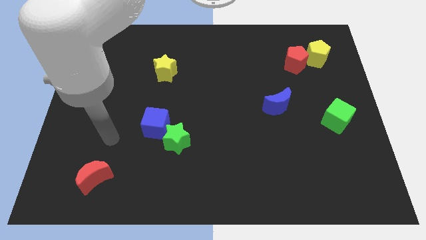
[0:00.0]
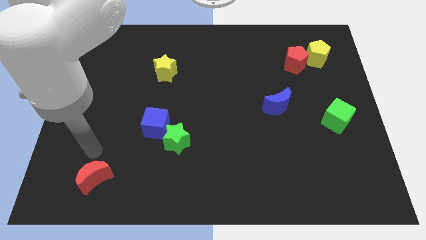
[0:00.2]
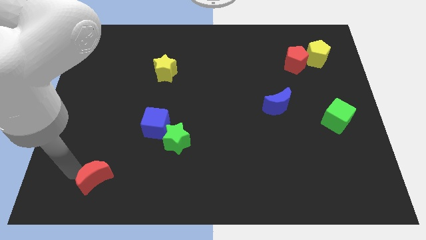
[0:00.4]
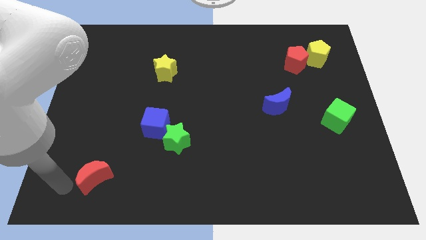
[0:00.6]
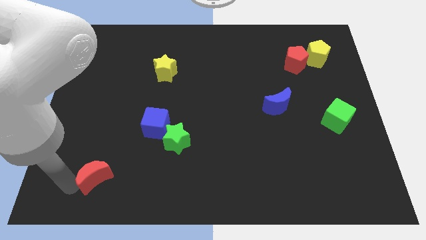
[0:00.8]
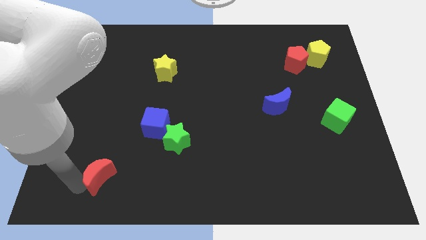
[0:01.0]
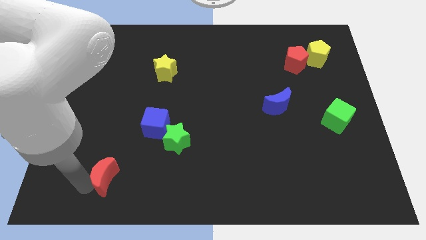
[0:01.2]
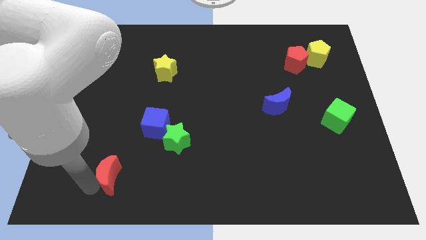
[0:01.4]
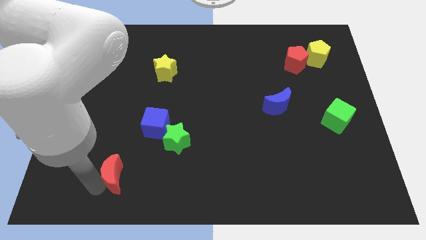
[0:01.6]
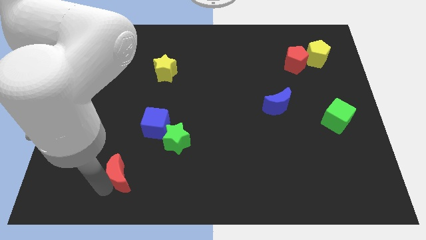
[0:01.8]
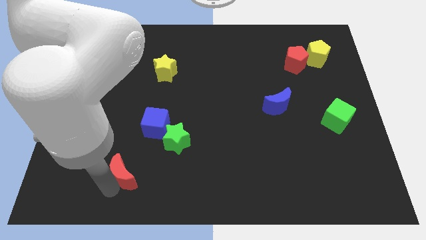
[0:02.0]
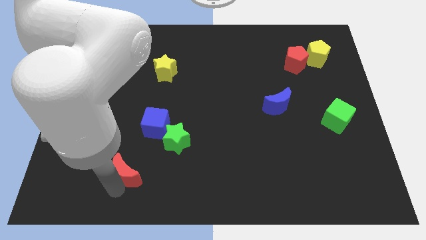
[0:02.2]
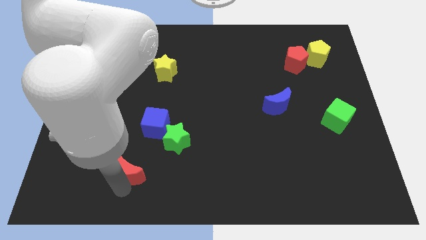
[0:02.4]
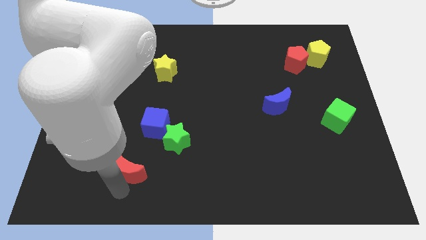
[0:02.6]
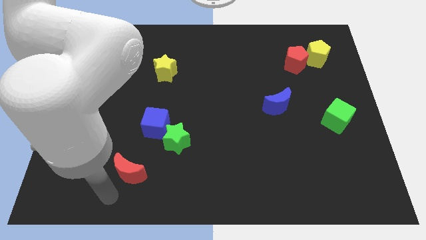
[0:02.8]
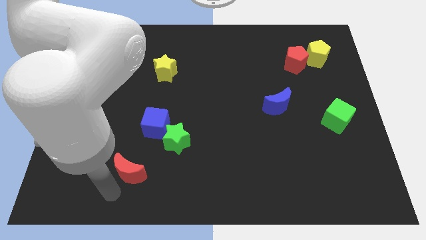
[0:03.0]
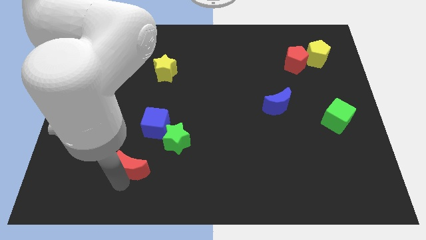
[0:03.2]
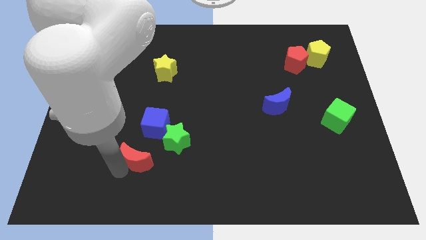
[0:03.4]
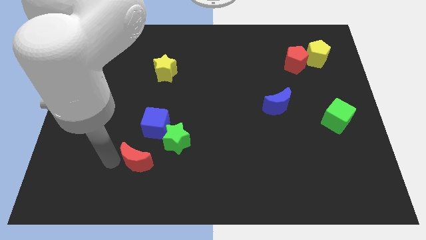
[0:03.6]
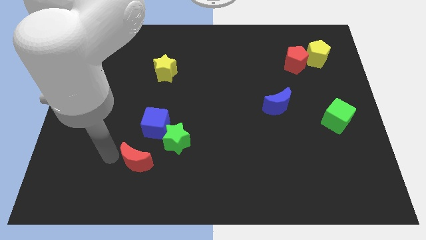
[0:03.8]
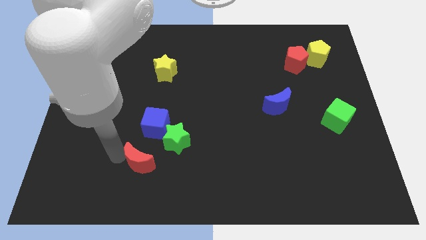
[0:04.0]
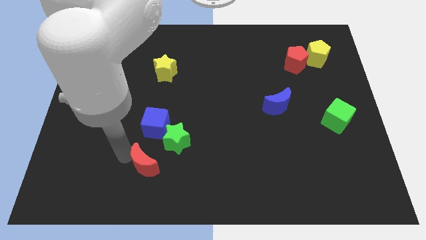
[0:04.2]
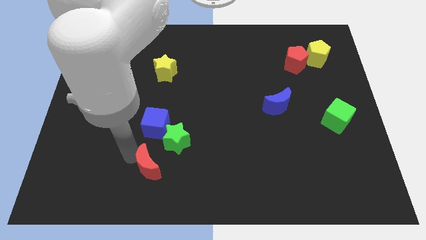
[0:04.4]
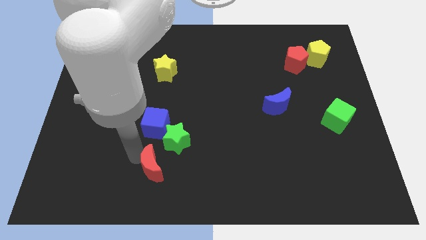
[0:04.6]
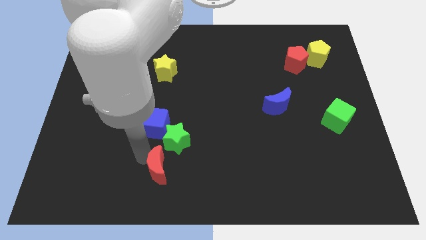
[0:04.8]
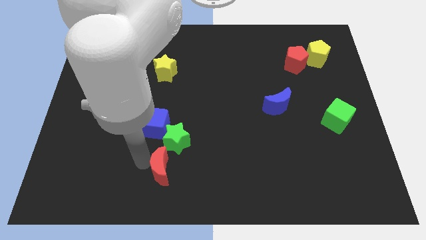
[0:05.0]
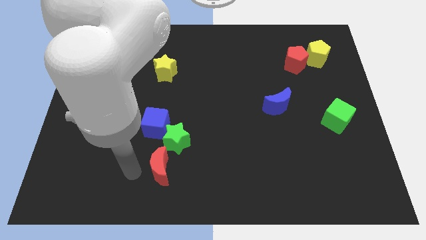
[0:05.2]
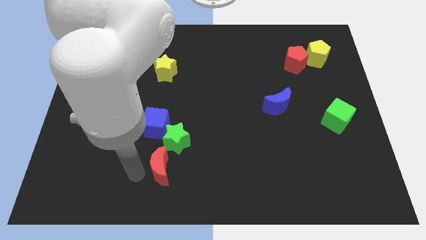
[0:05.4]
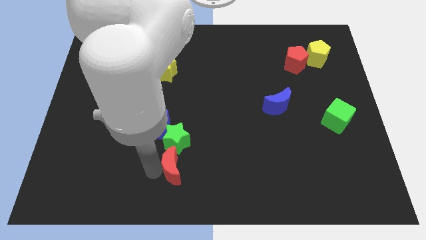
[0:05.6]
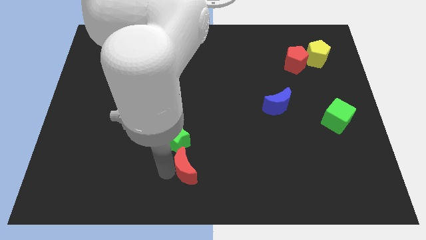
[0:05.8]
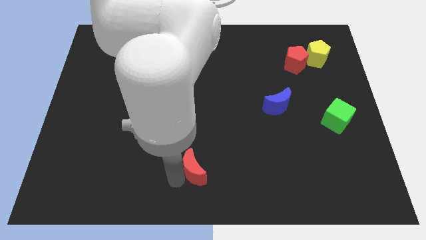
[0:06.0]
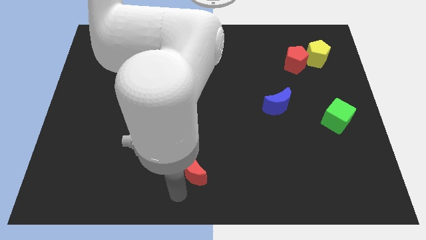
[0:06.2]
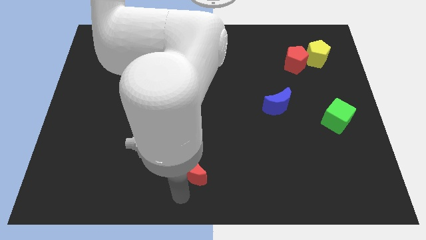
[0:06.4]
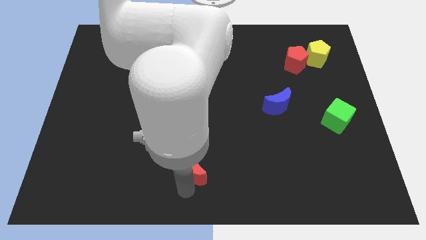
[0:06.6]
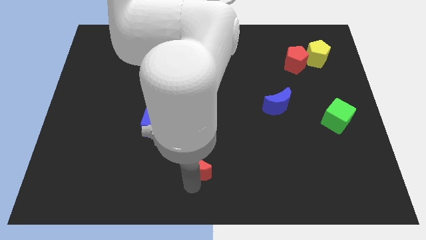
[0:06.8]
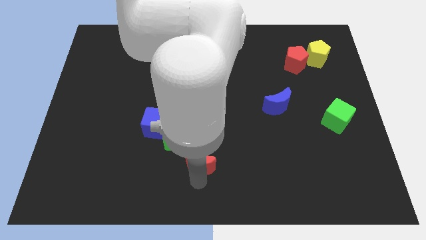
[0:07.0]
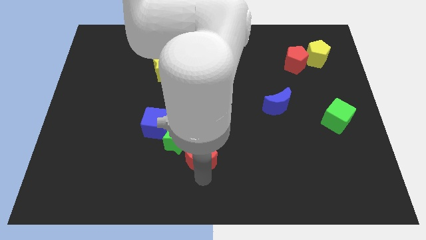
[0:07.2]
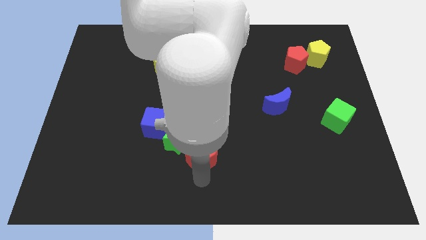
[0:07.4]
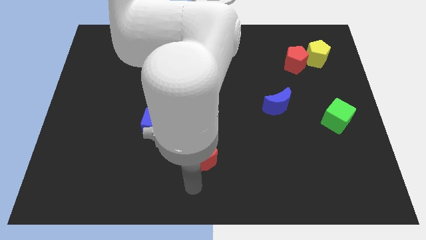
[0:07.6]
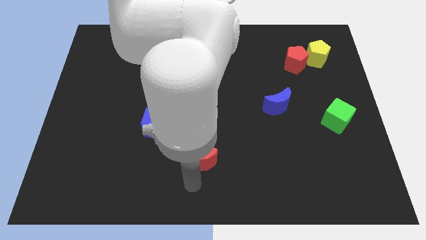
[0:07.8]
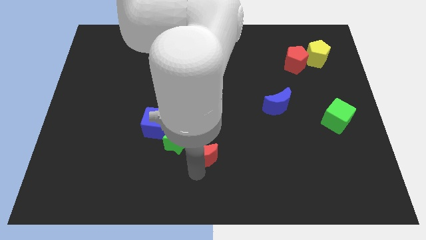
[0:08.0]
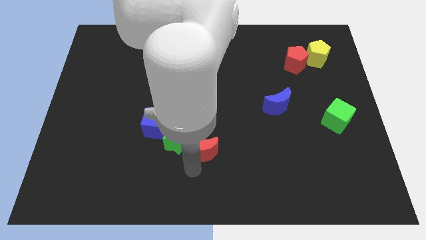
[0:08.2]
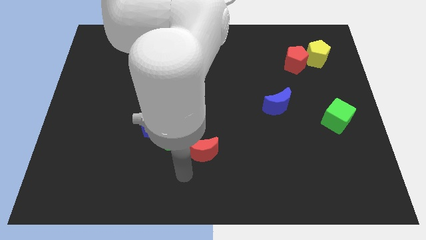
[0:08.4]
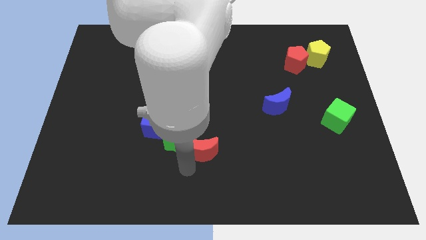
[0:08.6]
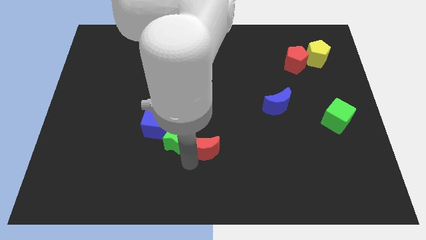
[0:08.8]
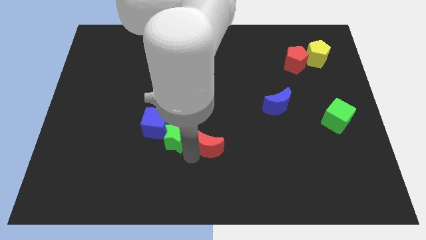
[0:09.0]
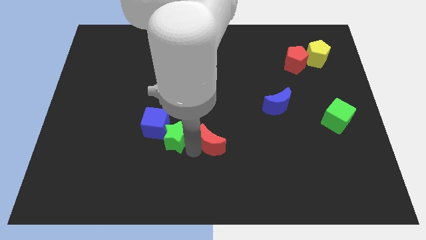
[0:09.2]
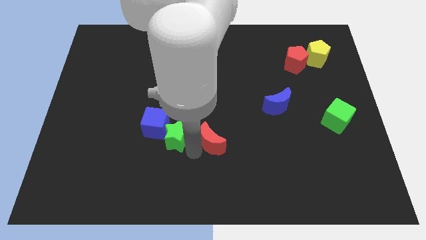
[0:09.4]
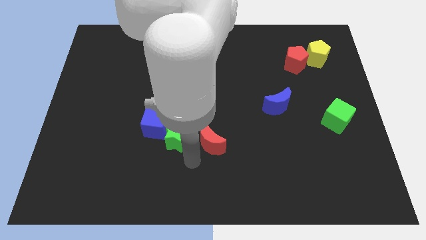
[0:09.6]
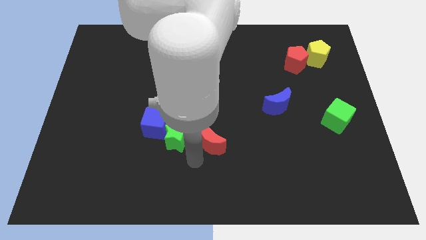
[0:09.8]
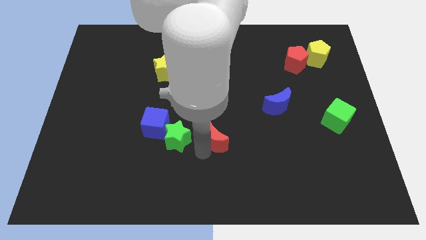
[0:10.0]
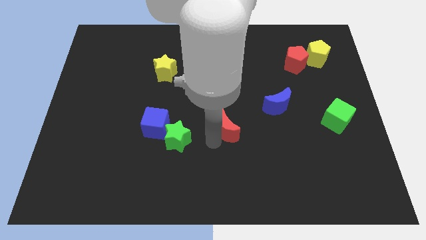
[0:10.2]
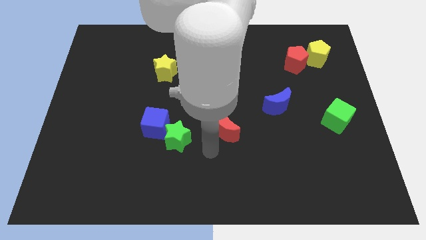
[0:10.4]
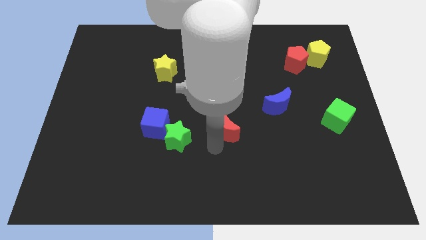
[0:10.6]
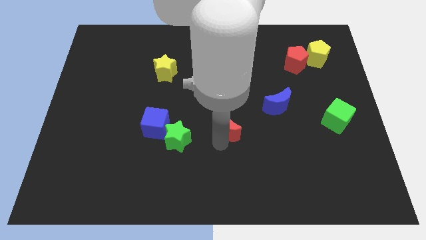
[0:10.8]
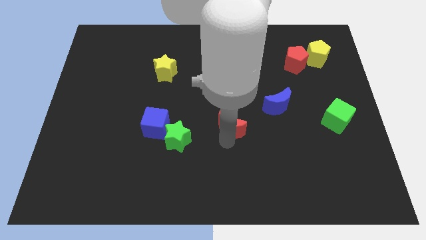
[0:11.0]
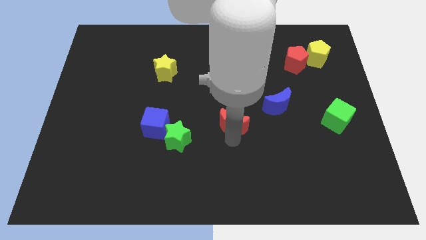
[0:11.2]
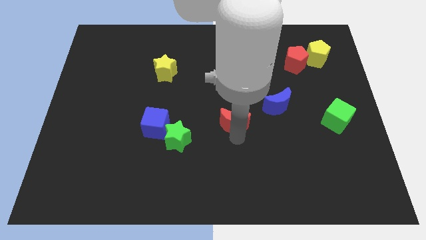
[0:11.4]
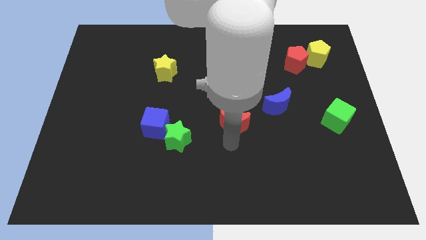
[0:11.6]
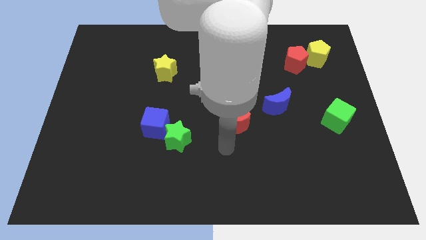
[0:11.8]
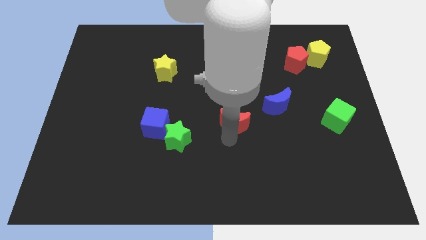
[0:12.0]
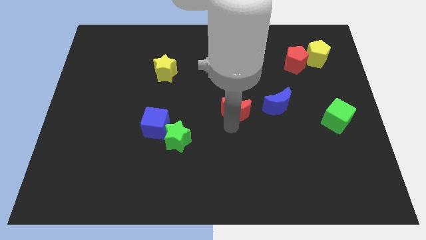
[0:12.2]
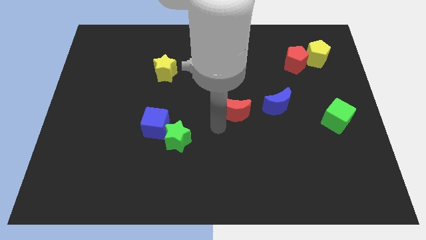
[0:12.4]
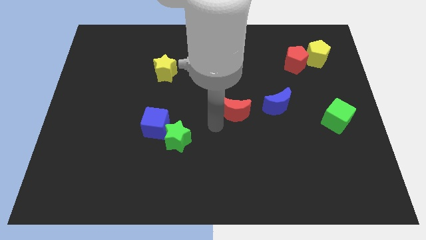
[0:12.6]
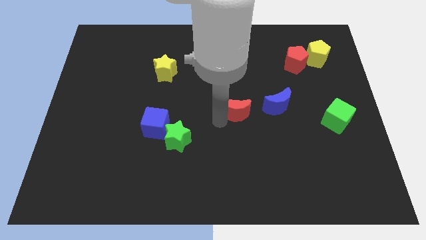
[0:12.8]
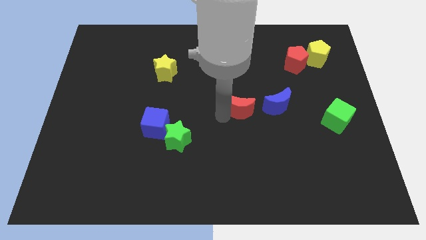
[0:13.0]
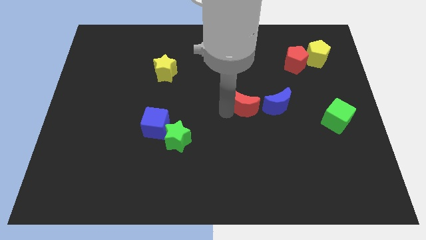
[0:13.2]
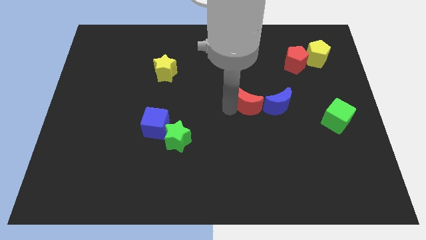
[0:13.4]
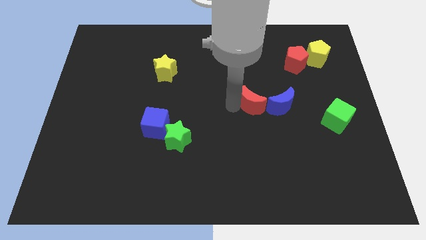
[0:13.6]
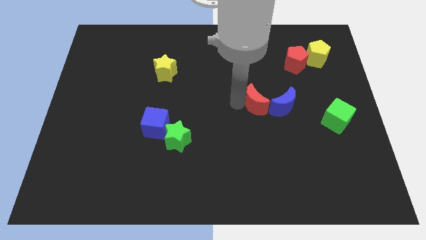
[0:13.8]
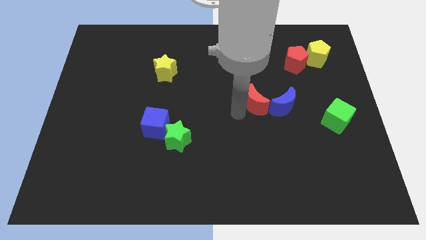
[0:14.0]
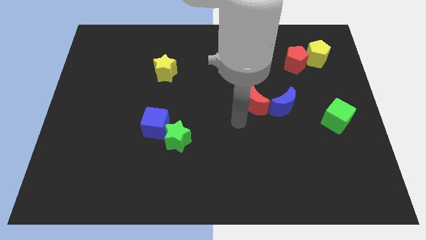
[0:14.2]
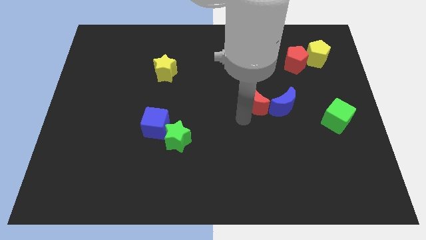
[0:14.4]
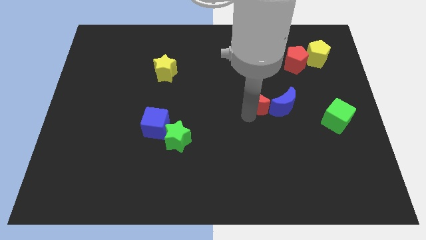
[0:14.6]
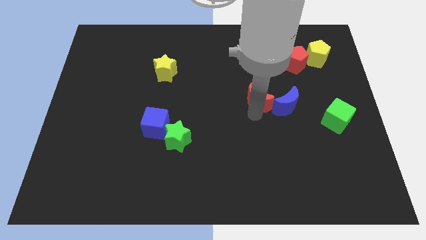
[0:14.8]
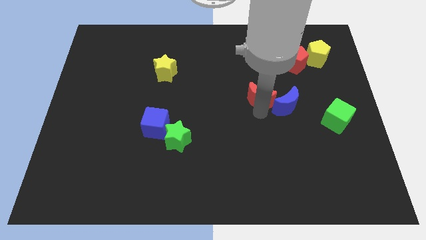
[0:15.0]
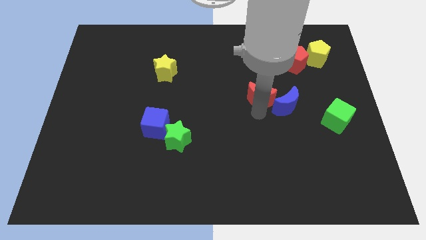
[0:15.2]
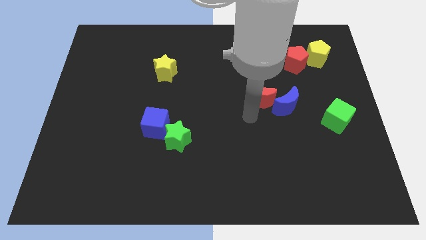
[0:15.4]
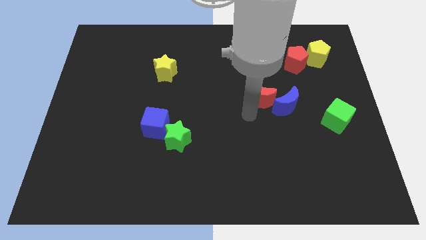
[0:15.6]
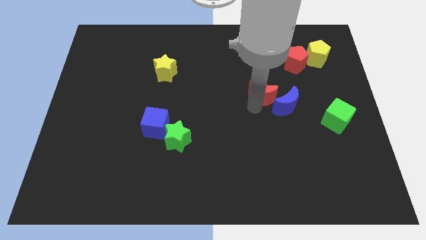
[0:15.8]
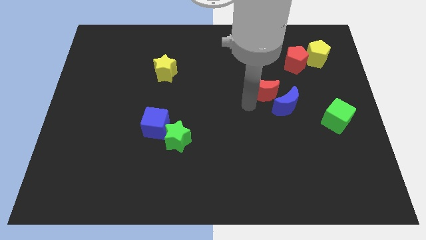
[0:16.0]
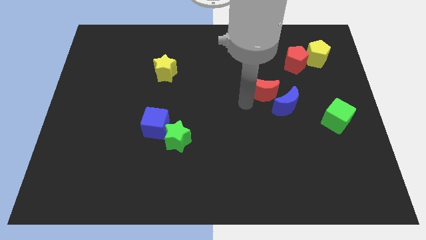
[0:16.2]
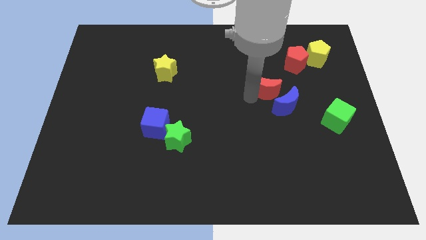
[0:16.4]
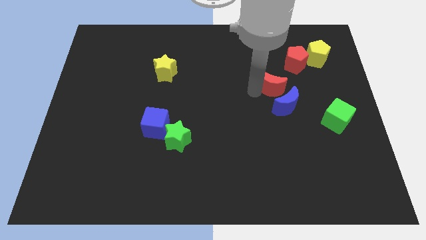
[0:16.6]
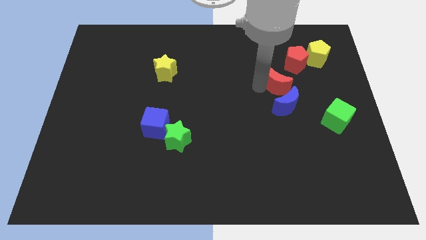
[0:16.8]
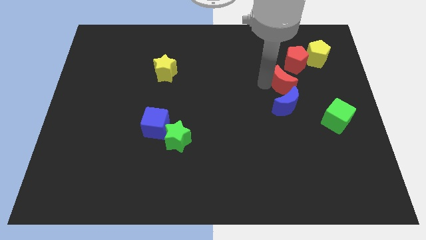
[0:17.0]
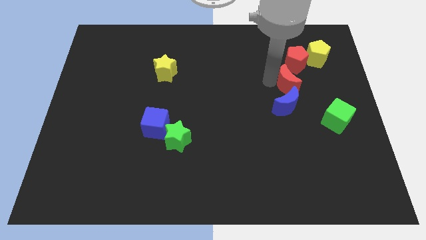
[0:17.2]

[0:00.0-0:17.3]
push the red moon to the bottom left side of the yellow pentagon
